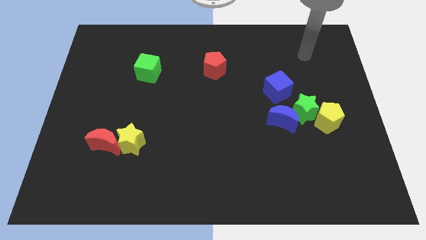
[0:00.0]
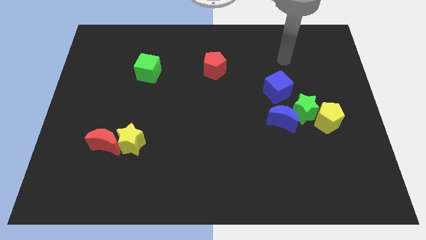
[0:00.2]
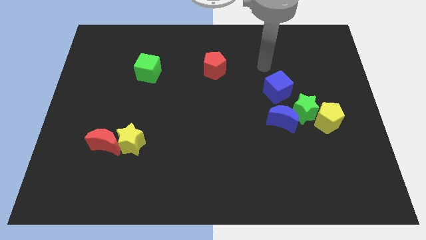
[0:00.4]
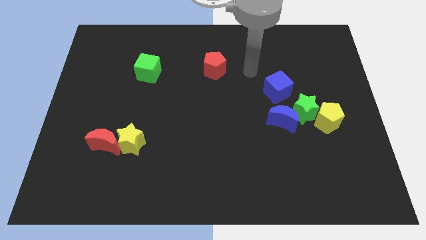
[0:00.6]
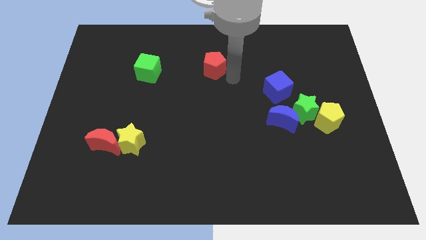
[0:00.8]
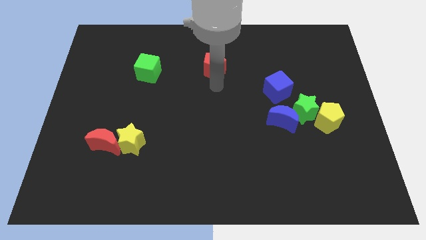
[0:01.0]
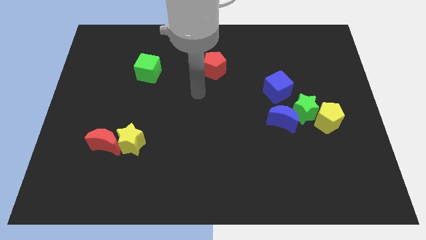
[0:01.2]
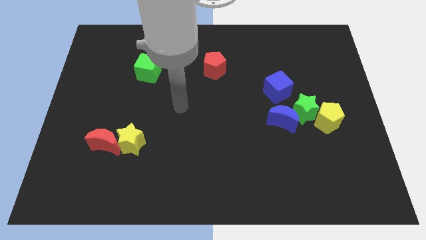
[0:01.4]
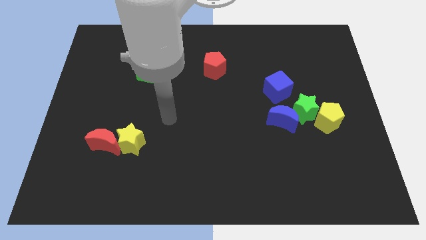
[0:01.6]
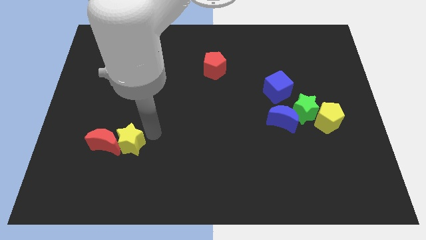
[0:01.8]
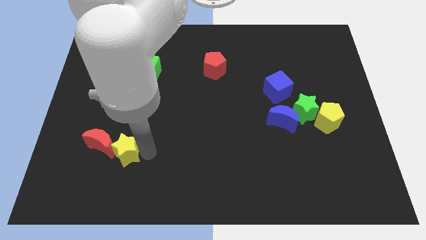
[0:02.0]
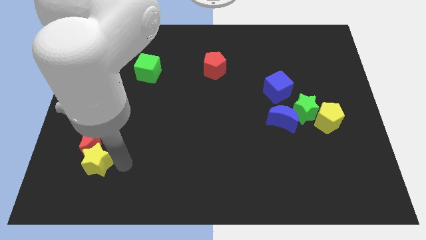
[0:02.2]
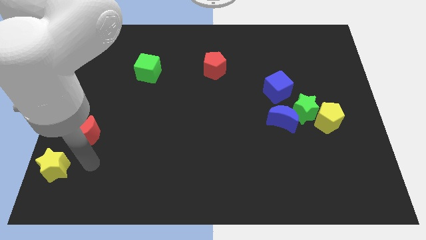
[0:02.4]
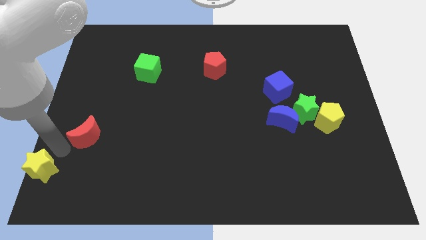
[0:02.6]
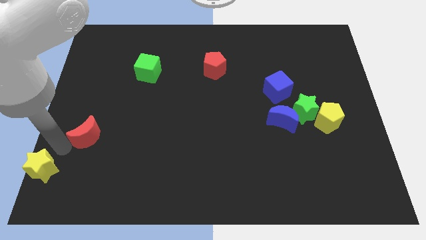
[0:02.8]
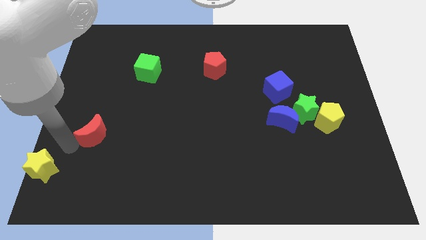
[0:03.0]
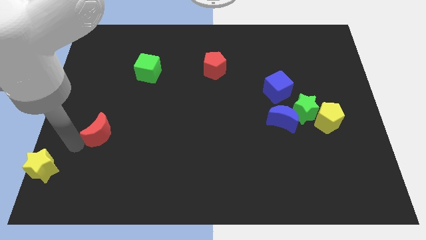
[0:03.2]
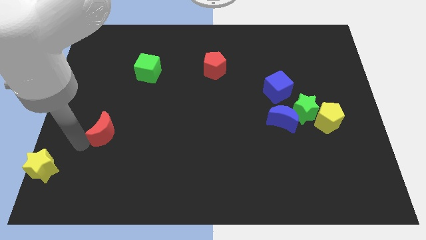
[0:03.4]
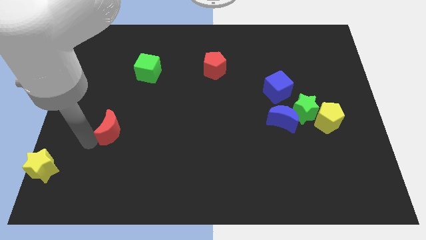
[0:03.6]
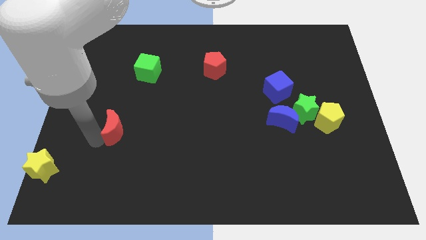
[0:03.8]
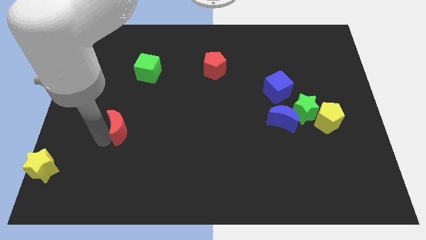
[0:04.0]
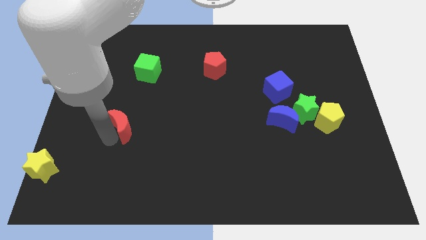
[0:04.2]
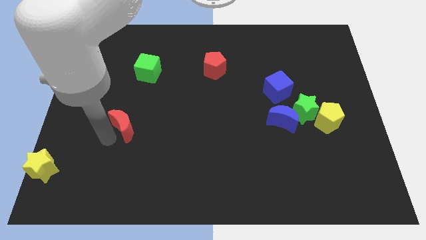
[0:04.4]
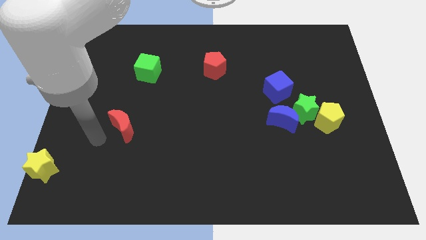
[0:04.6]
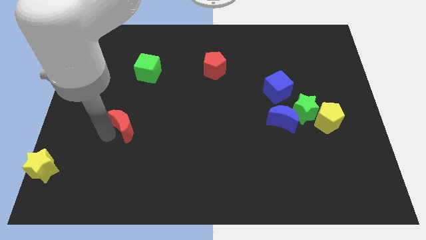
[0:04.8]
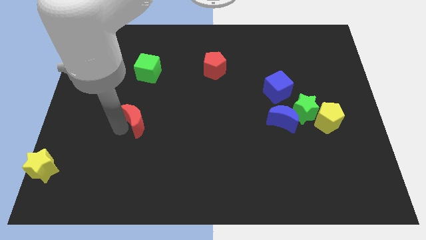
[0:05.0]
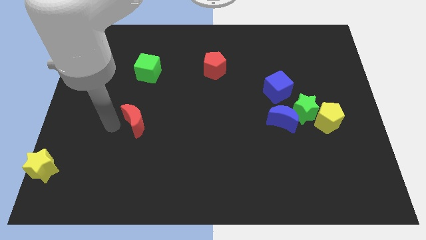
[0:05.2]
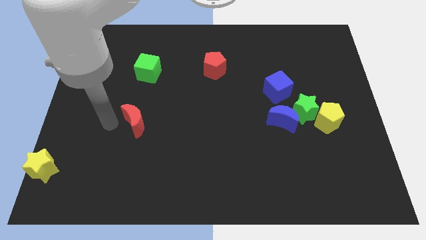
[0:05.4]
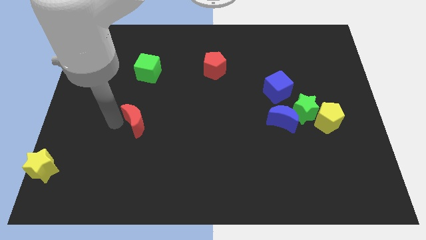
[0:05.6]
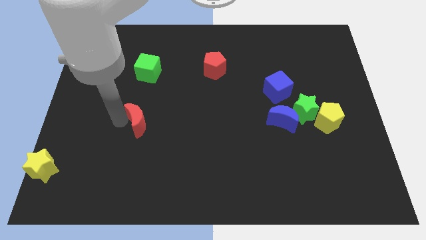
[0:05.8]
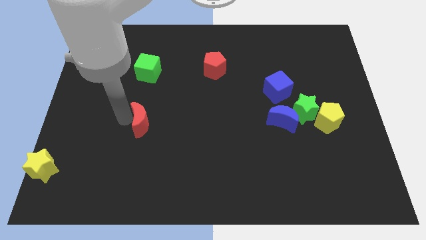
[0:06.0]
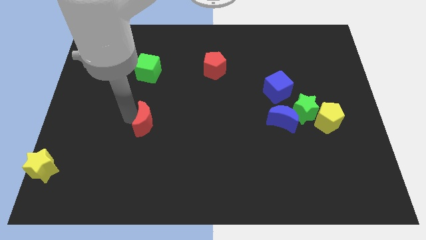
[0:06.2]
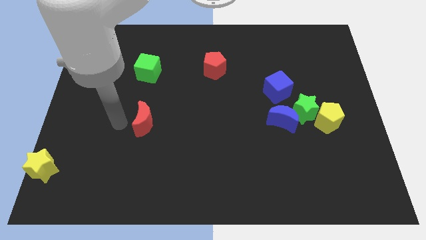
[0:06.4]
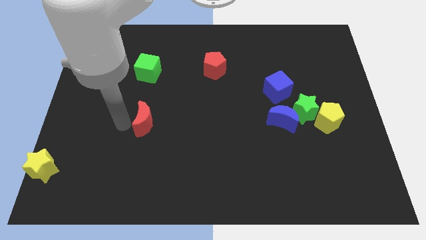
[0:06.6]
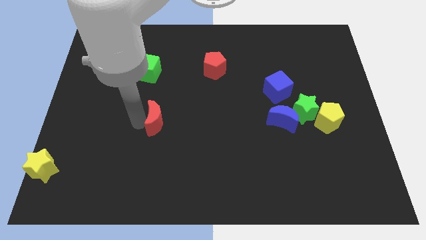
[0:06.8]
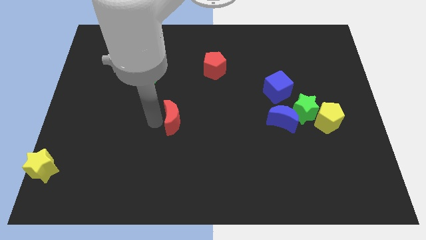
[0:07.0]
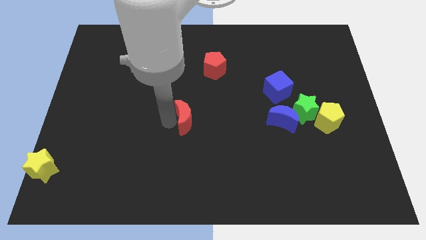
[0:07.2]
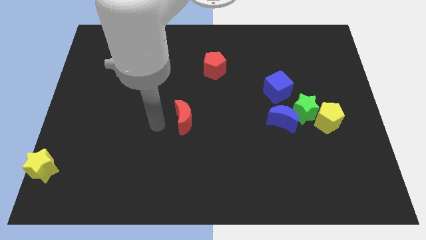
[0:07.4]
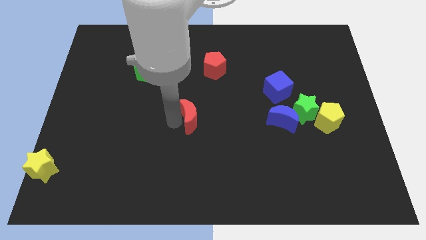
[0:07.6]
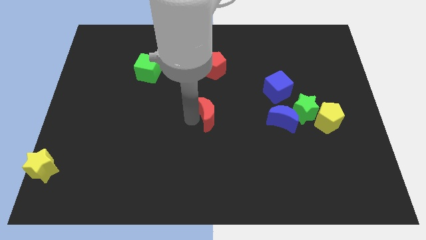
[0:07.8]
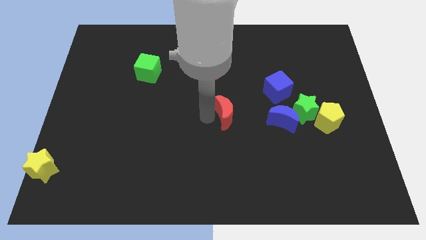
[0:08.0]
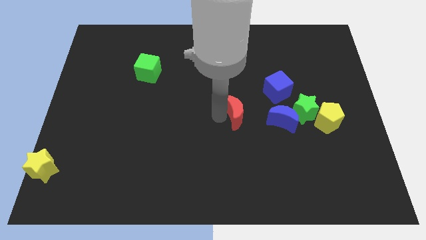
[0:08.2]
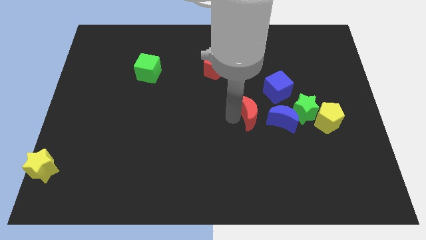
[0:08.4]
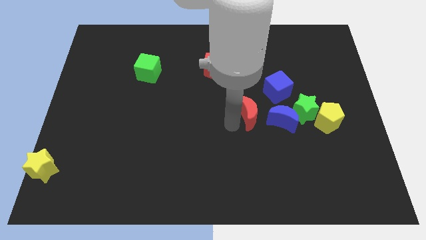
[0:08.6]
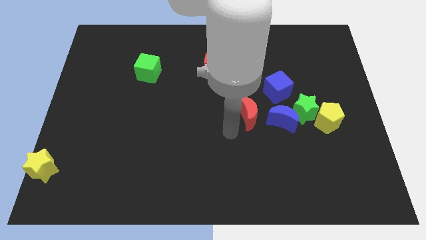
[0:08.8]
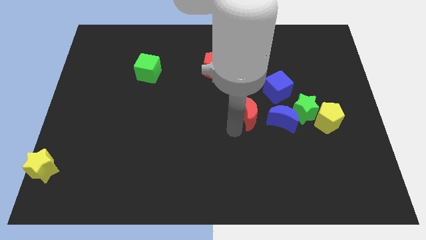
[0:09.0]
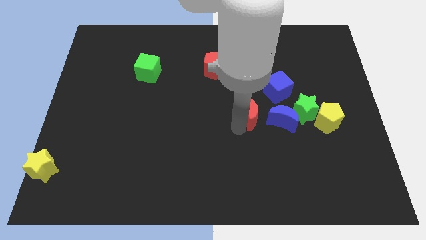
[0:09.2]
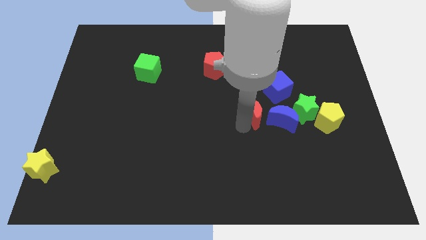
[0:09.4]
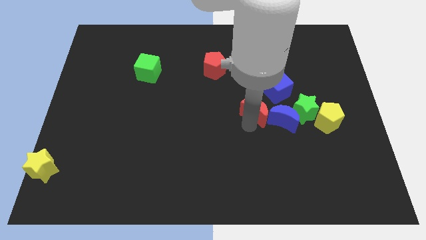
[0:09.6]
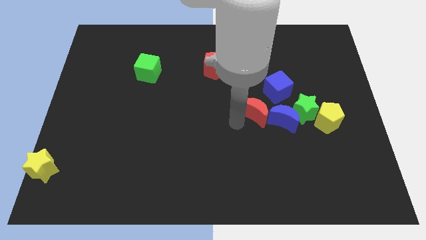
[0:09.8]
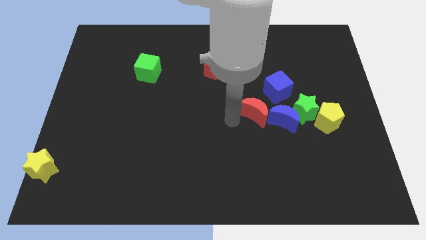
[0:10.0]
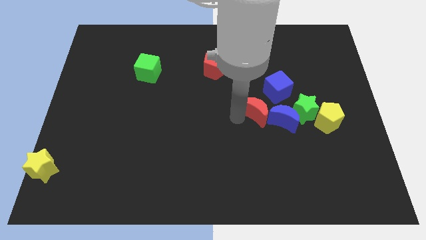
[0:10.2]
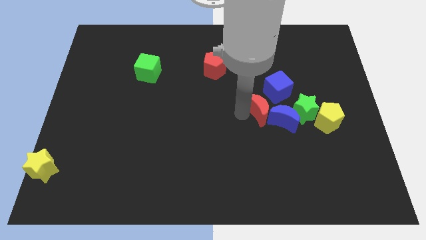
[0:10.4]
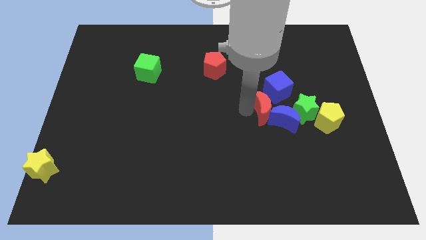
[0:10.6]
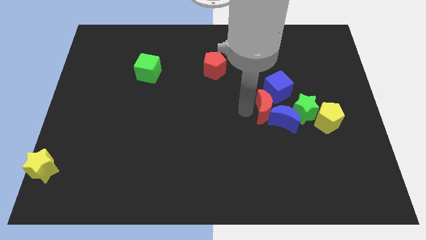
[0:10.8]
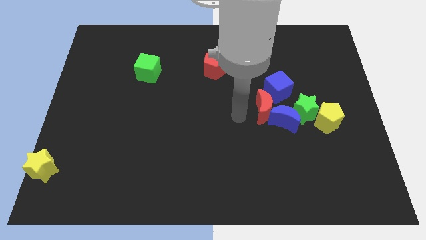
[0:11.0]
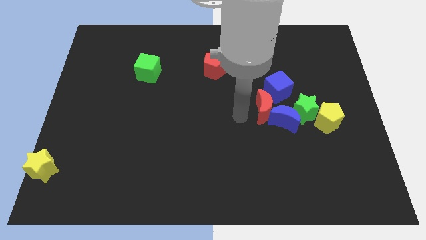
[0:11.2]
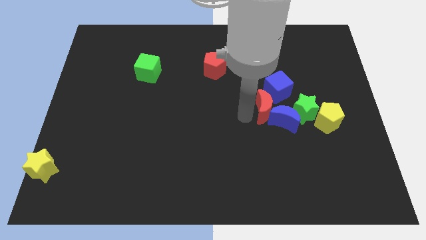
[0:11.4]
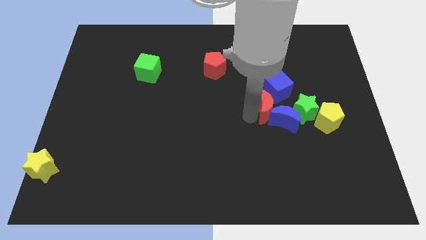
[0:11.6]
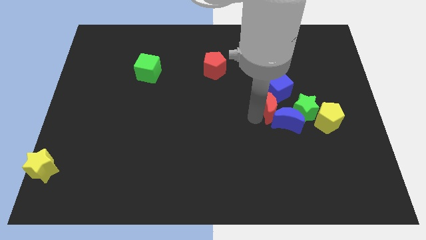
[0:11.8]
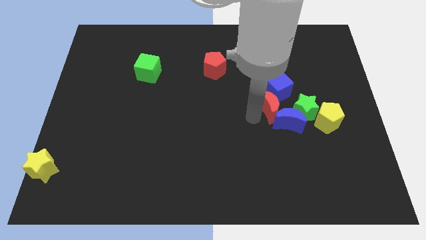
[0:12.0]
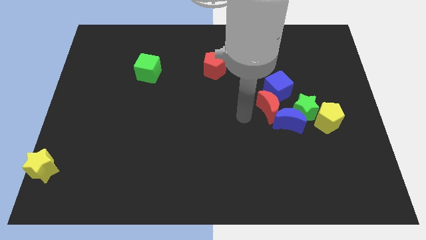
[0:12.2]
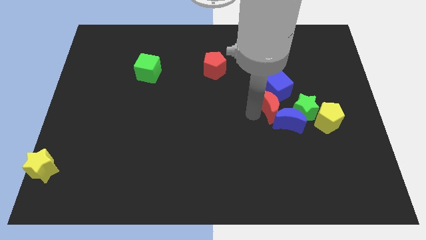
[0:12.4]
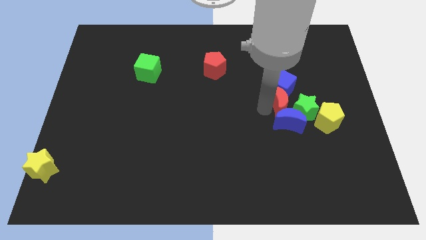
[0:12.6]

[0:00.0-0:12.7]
move the red moon next to the green star

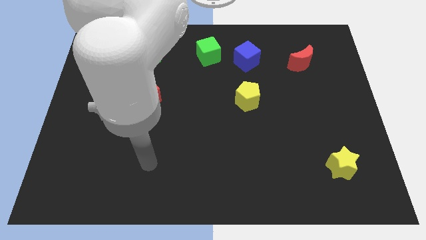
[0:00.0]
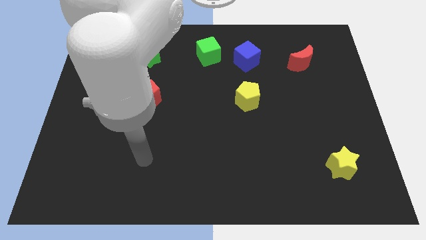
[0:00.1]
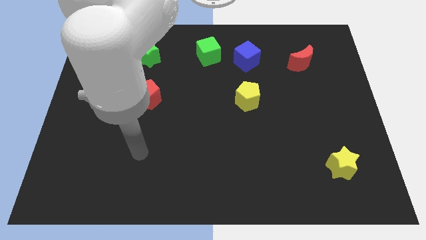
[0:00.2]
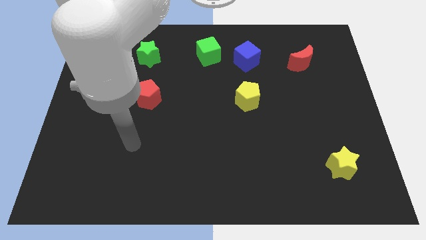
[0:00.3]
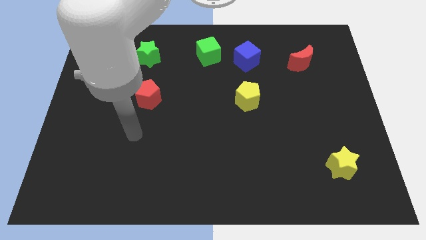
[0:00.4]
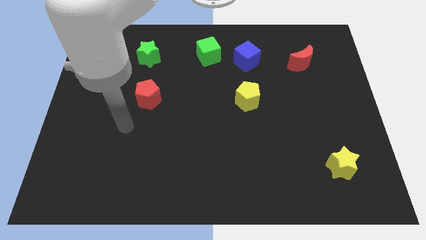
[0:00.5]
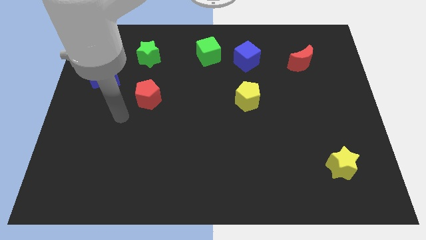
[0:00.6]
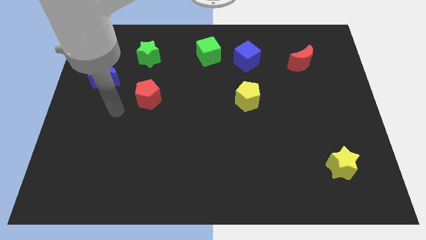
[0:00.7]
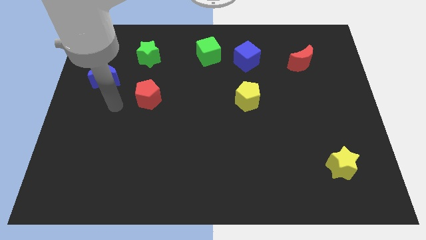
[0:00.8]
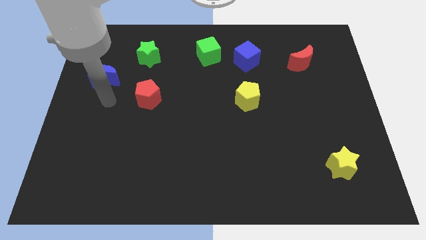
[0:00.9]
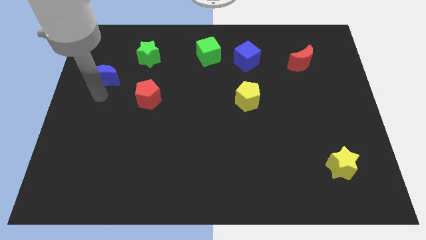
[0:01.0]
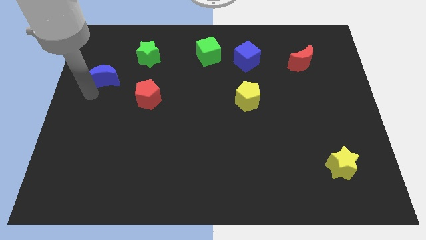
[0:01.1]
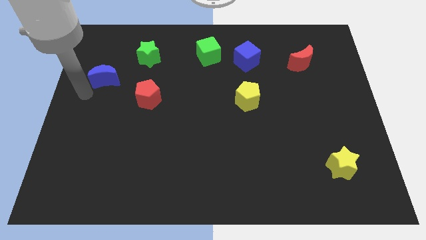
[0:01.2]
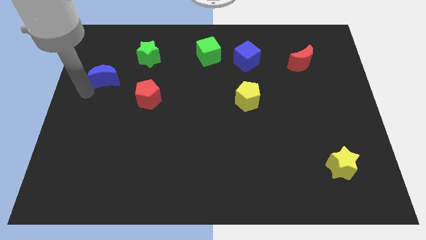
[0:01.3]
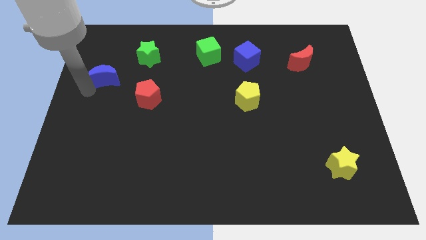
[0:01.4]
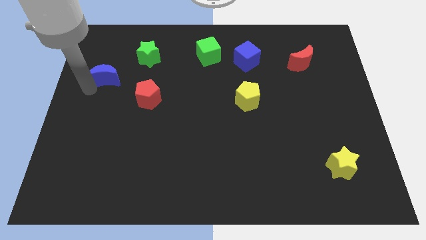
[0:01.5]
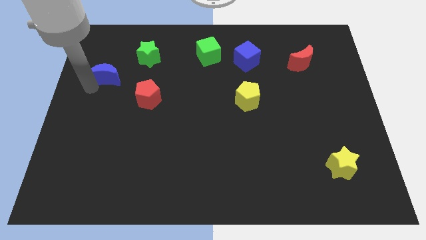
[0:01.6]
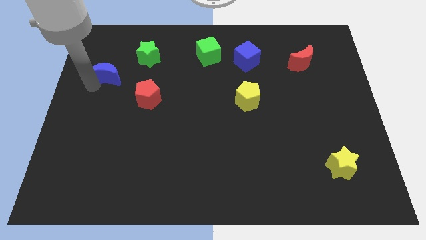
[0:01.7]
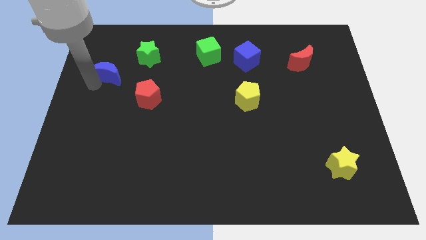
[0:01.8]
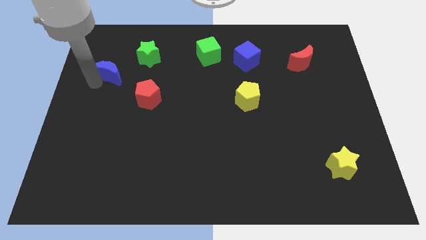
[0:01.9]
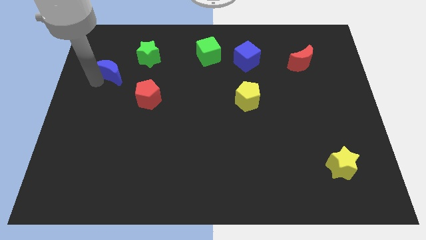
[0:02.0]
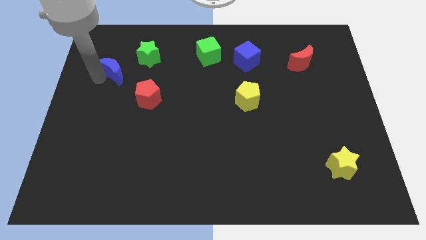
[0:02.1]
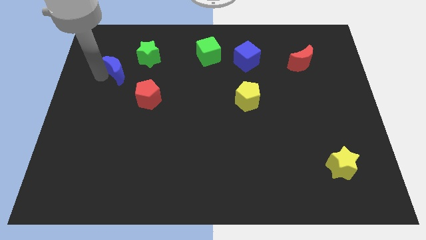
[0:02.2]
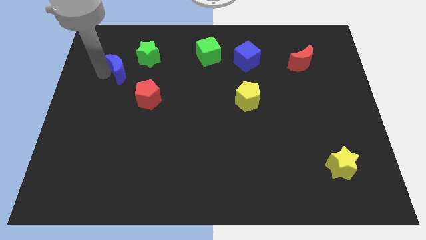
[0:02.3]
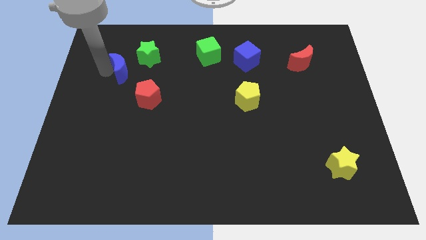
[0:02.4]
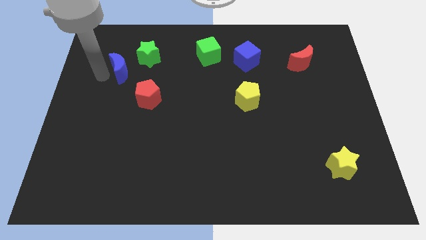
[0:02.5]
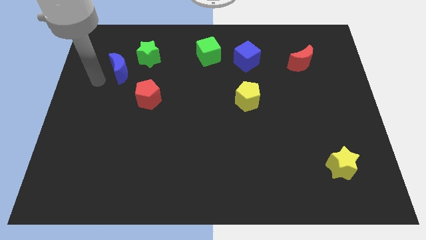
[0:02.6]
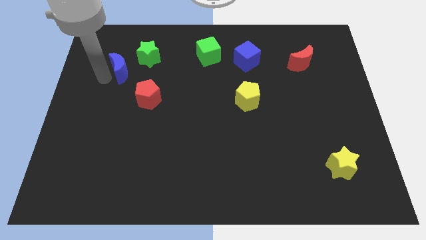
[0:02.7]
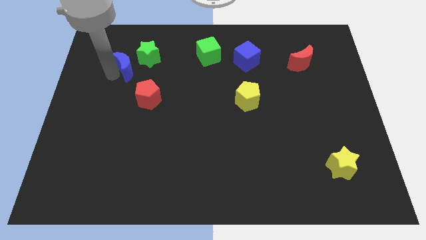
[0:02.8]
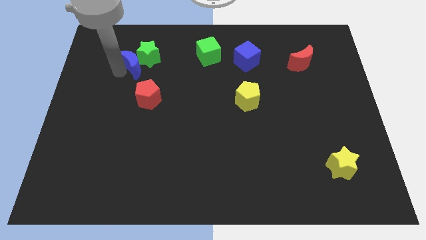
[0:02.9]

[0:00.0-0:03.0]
put the blue moon towards the green star
